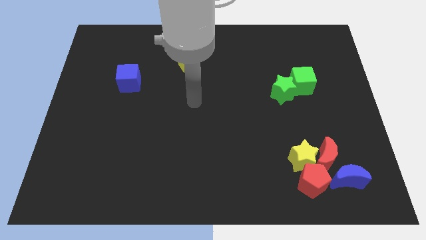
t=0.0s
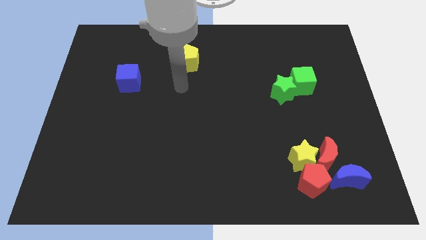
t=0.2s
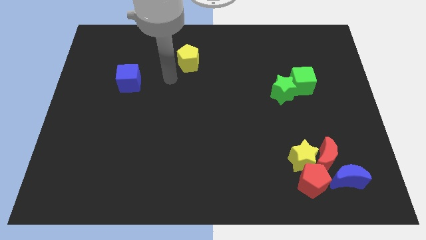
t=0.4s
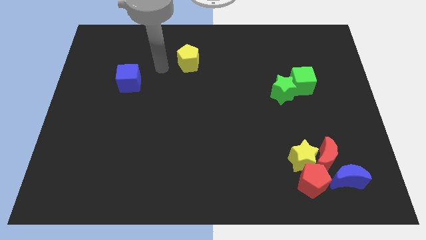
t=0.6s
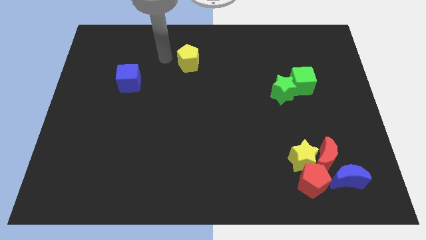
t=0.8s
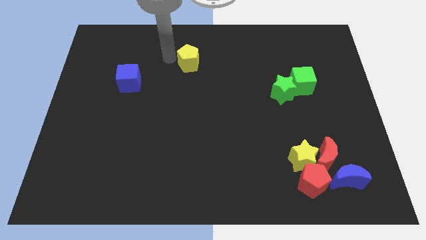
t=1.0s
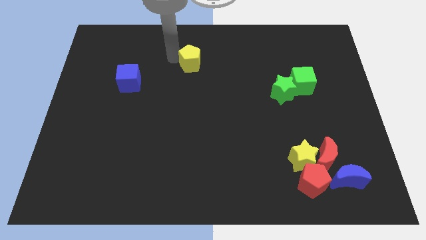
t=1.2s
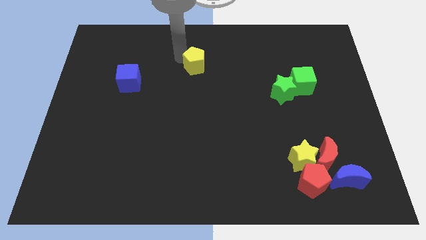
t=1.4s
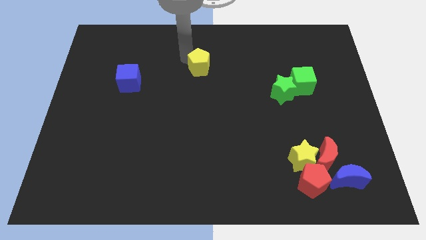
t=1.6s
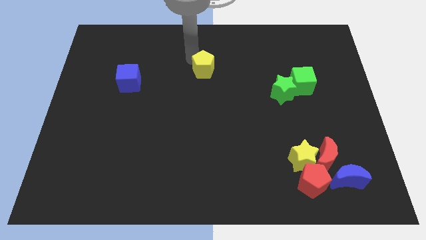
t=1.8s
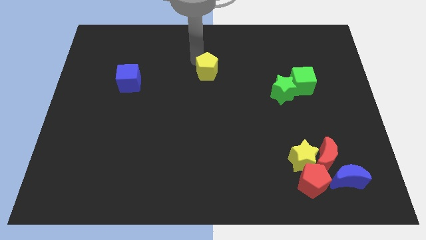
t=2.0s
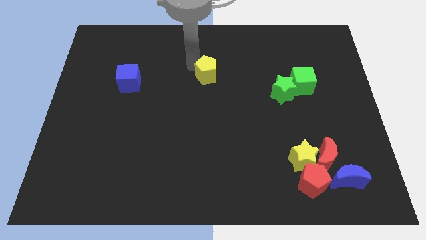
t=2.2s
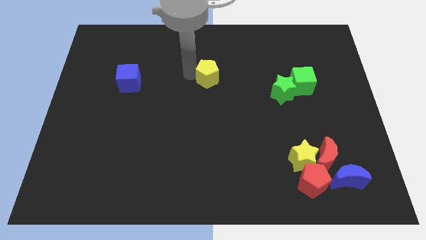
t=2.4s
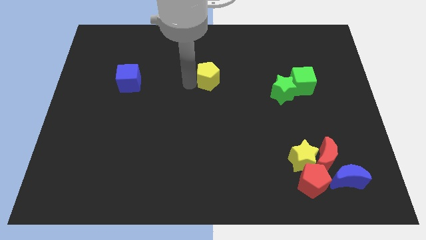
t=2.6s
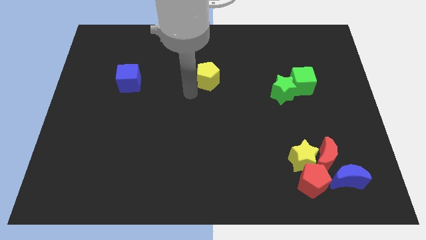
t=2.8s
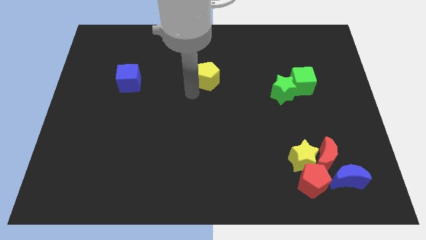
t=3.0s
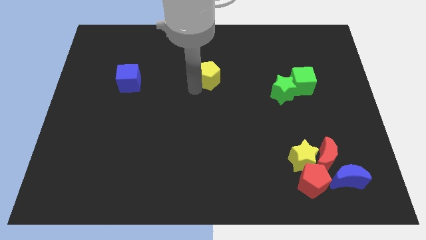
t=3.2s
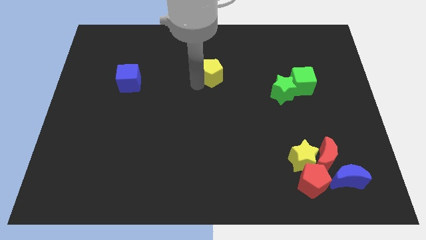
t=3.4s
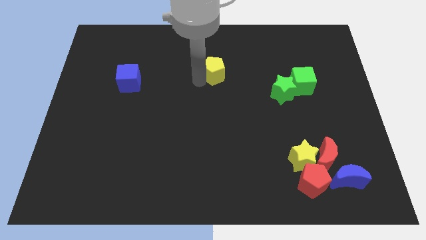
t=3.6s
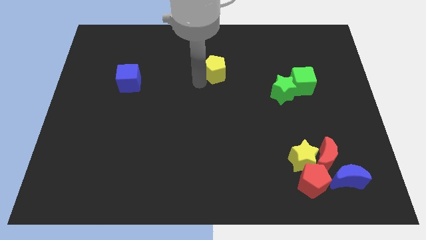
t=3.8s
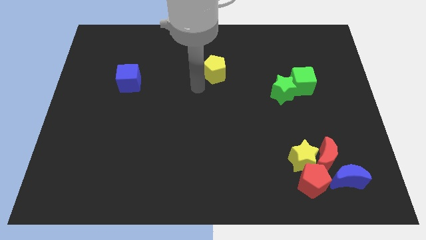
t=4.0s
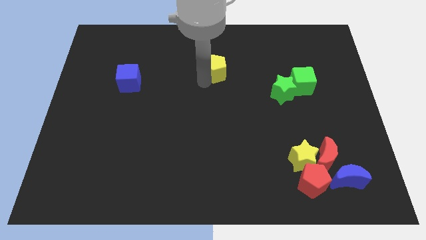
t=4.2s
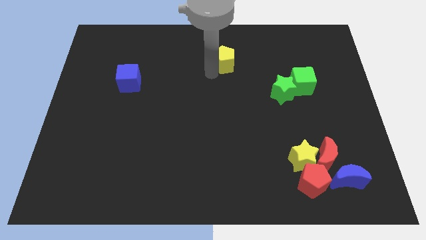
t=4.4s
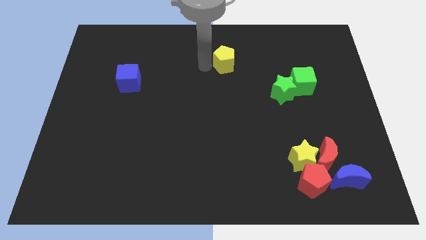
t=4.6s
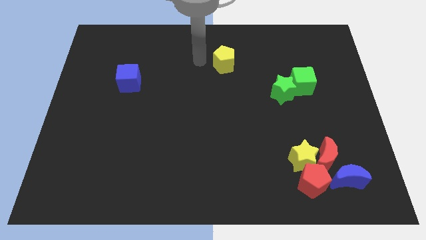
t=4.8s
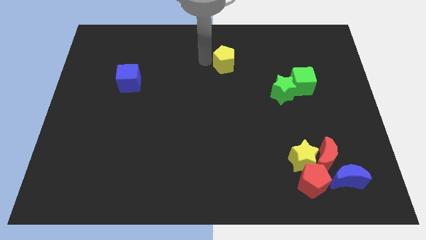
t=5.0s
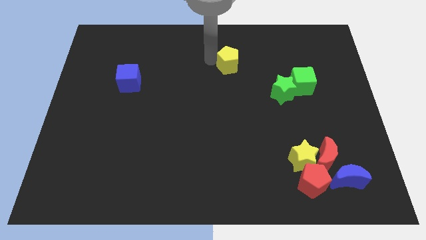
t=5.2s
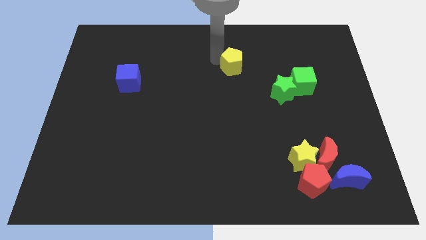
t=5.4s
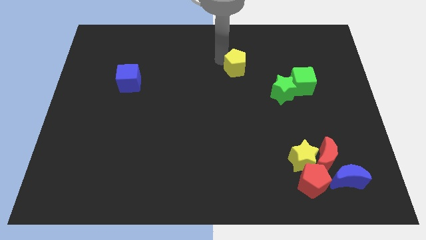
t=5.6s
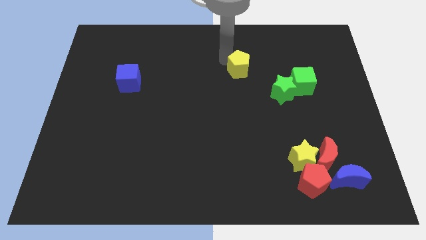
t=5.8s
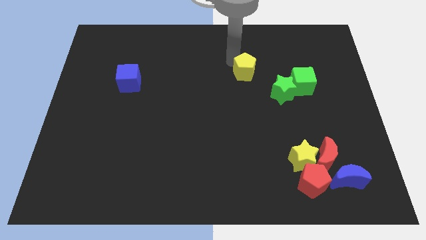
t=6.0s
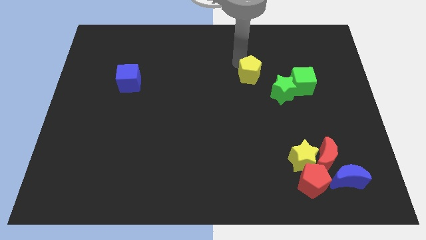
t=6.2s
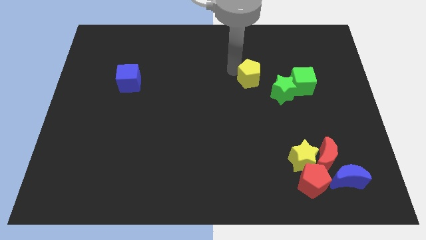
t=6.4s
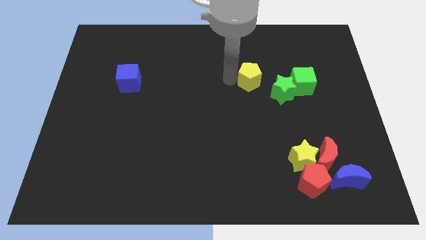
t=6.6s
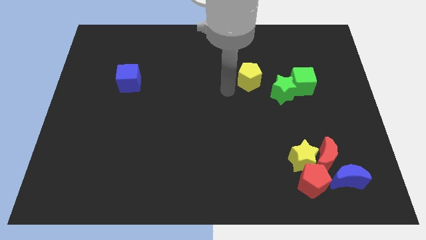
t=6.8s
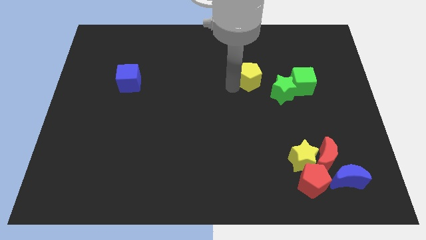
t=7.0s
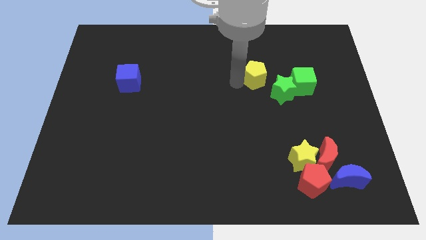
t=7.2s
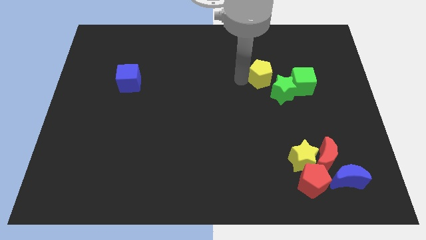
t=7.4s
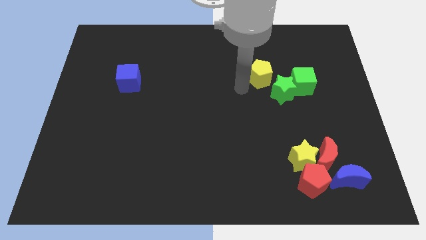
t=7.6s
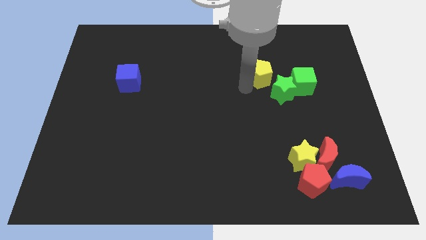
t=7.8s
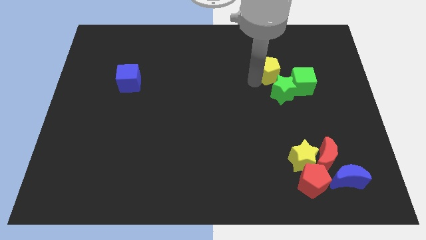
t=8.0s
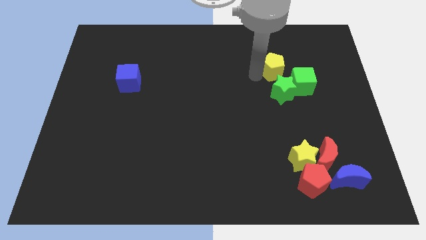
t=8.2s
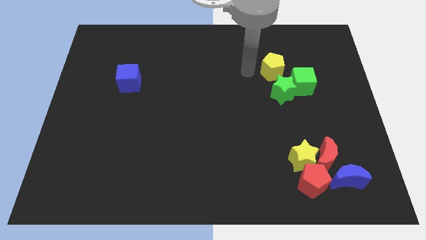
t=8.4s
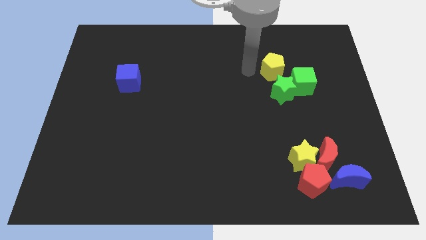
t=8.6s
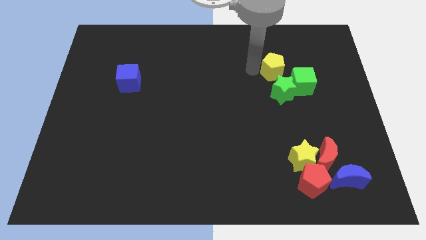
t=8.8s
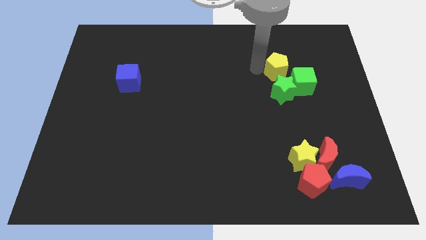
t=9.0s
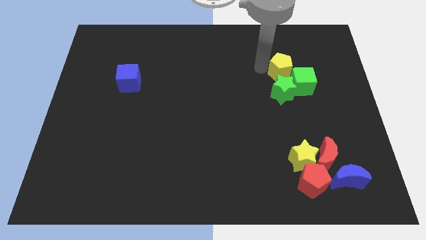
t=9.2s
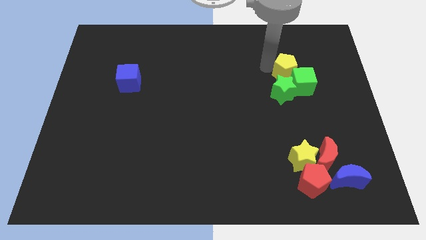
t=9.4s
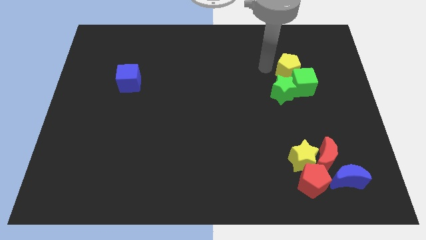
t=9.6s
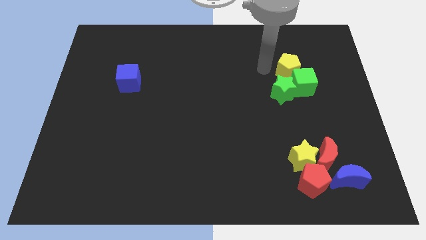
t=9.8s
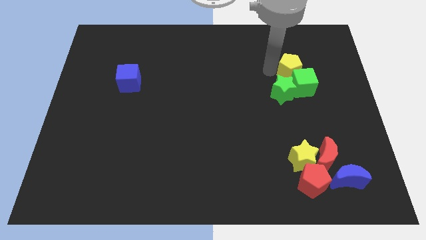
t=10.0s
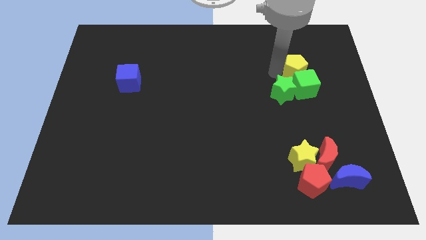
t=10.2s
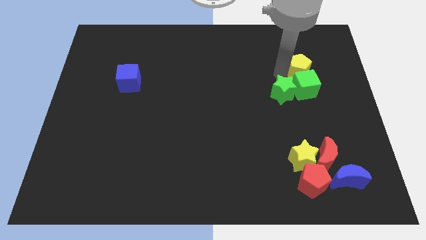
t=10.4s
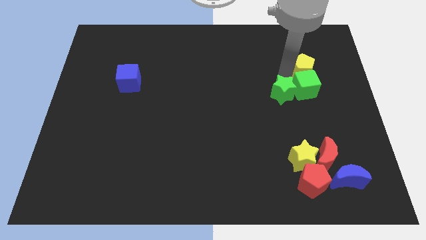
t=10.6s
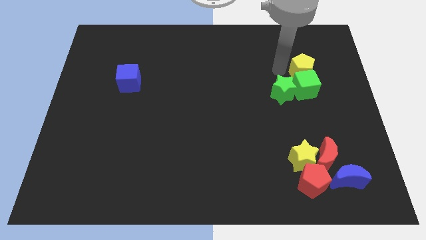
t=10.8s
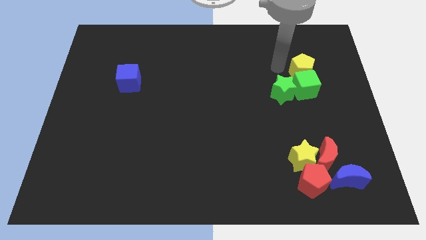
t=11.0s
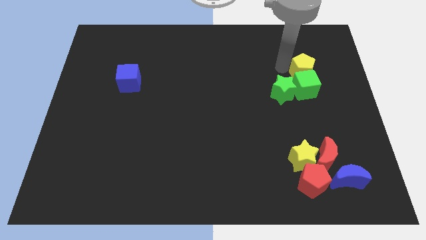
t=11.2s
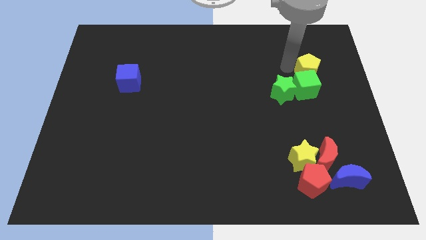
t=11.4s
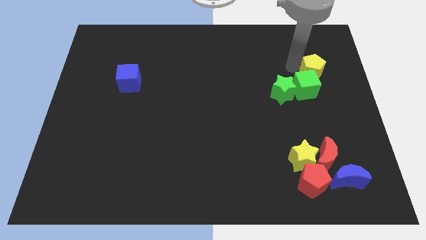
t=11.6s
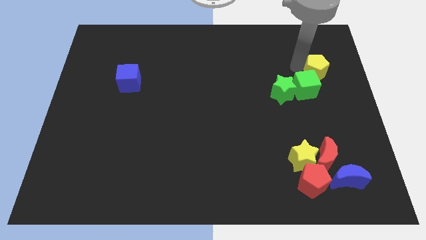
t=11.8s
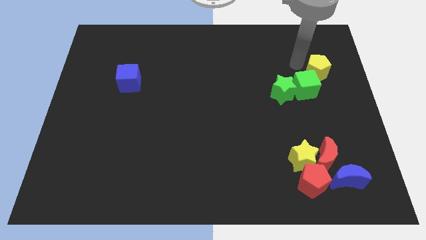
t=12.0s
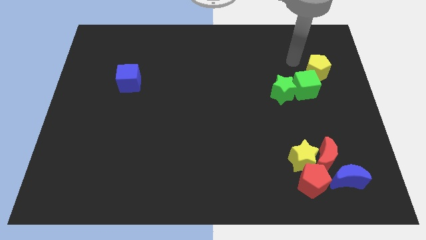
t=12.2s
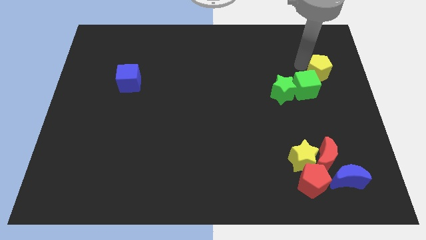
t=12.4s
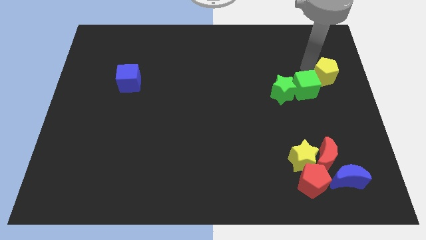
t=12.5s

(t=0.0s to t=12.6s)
push the yellow pentagon to the right side of the board
